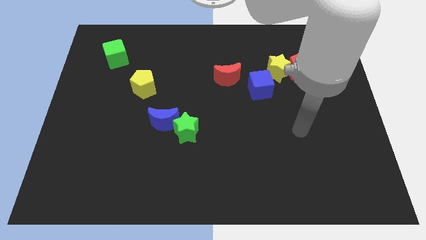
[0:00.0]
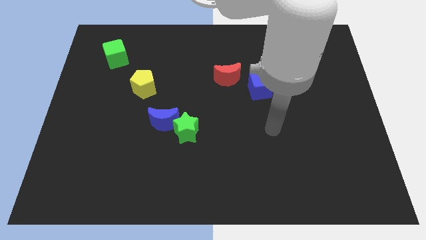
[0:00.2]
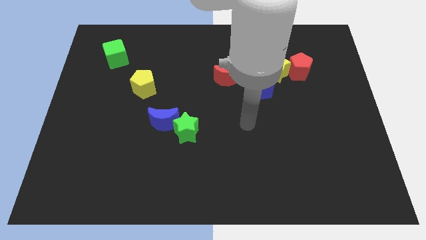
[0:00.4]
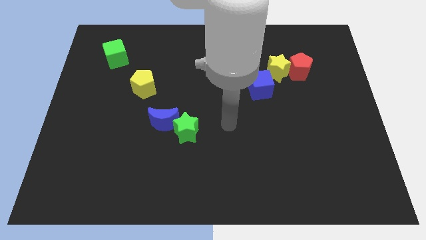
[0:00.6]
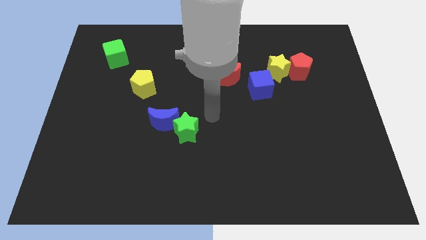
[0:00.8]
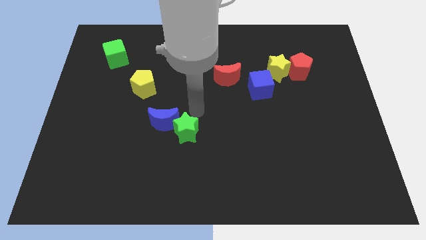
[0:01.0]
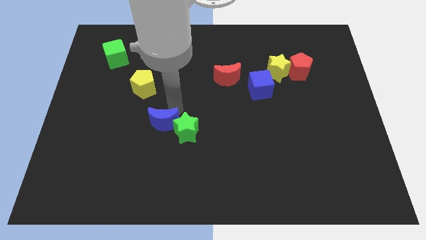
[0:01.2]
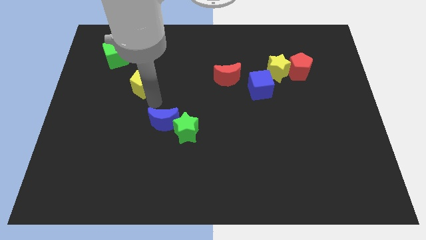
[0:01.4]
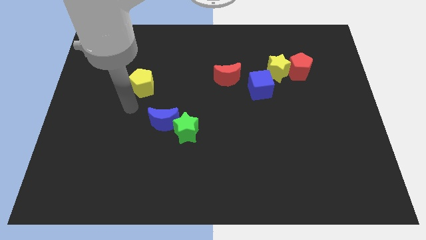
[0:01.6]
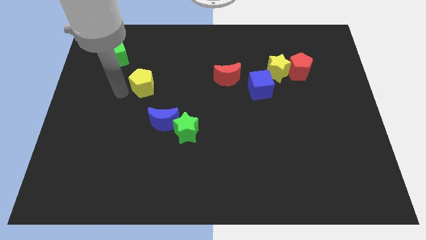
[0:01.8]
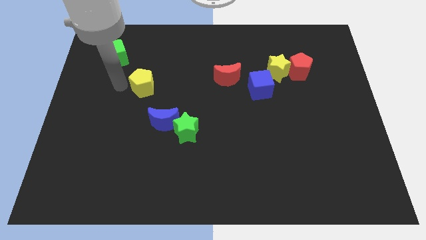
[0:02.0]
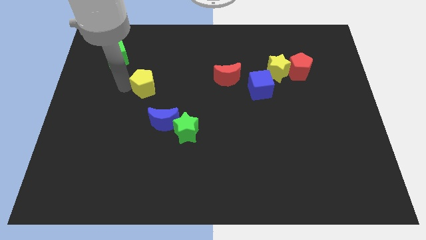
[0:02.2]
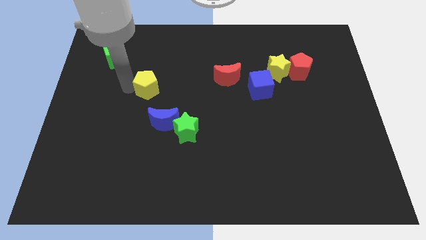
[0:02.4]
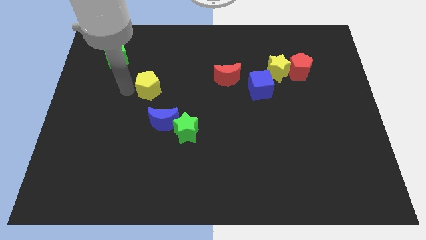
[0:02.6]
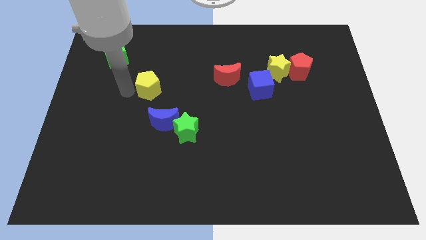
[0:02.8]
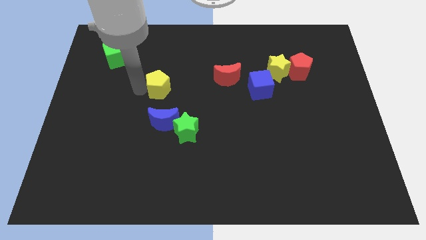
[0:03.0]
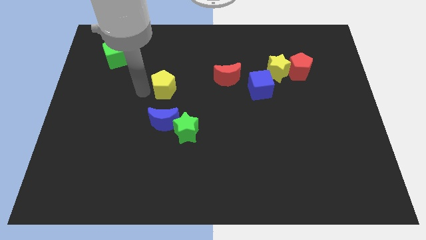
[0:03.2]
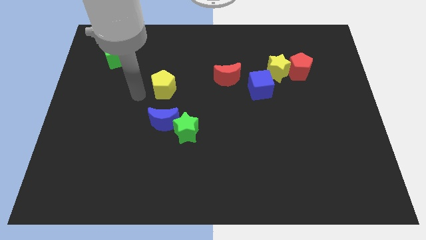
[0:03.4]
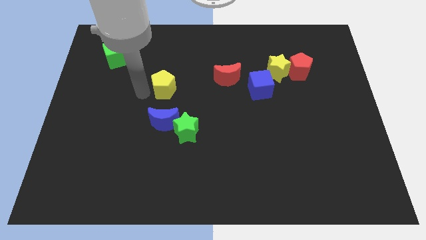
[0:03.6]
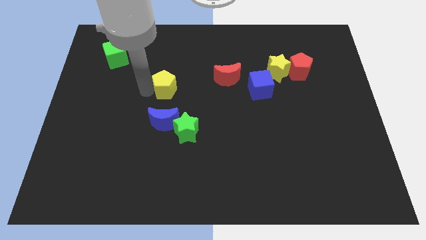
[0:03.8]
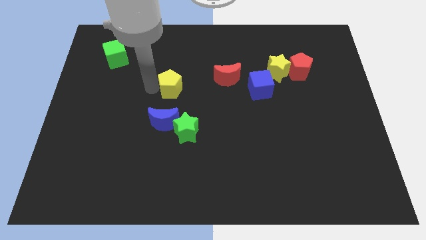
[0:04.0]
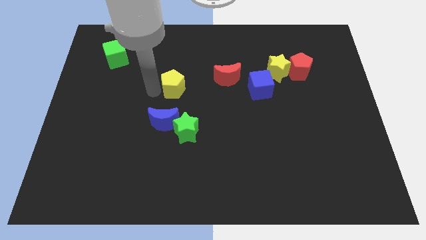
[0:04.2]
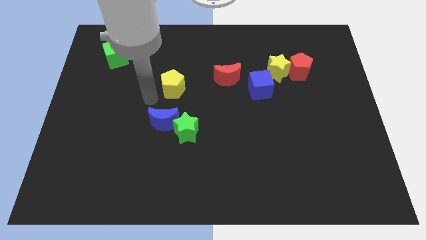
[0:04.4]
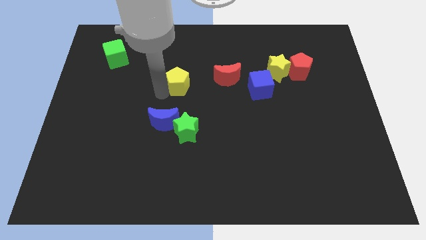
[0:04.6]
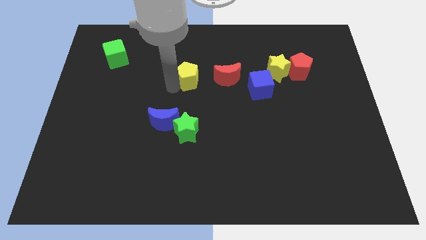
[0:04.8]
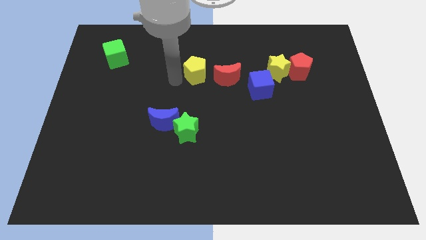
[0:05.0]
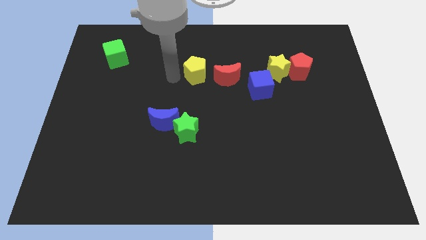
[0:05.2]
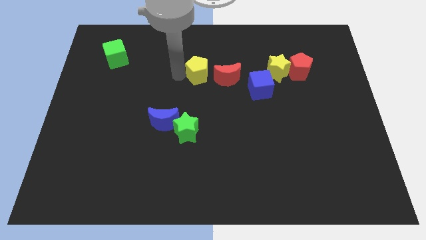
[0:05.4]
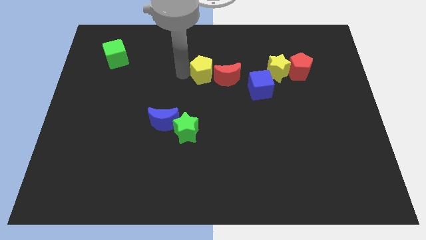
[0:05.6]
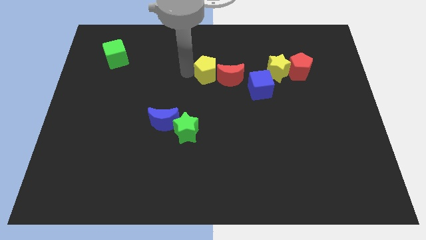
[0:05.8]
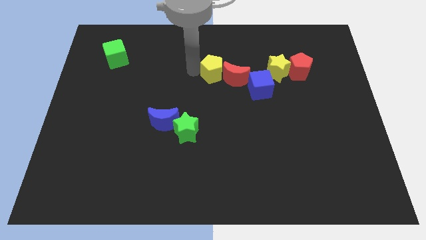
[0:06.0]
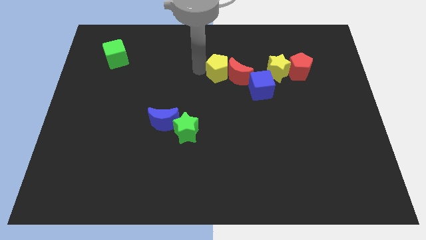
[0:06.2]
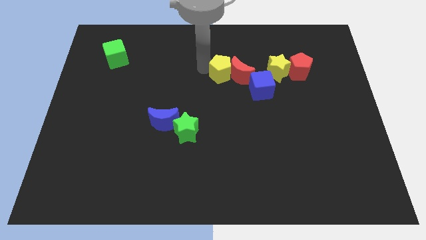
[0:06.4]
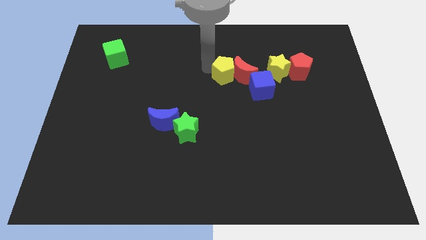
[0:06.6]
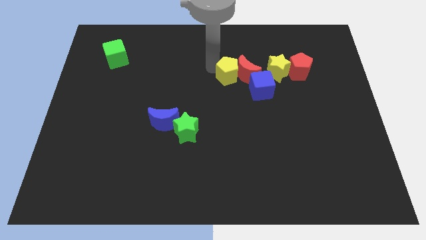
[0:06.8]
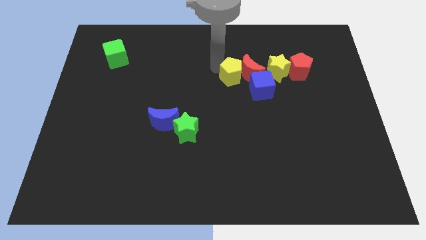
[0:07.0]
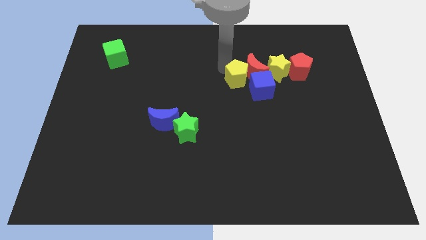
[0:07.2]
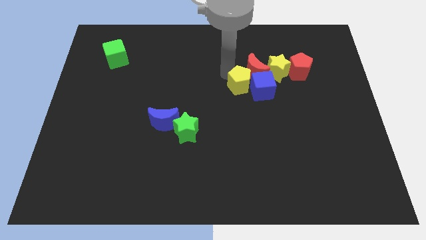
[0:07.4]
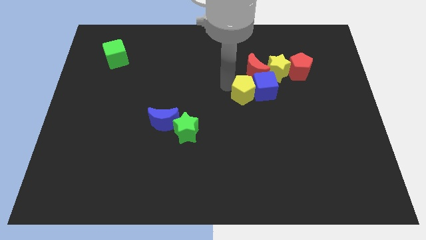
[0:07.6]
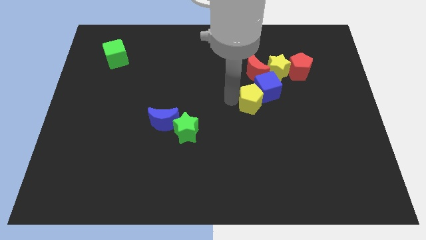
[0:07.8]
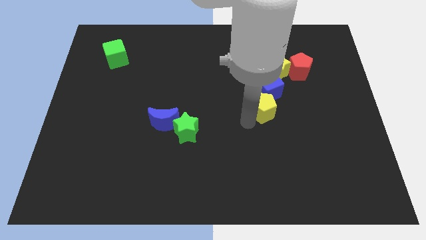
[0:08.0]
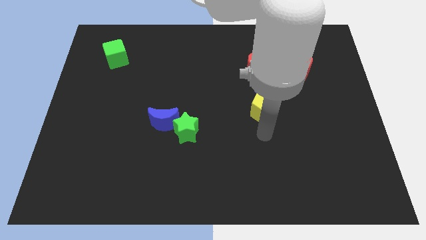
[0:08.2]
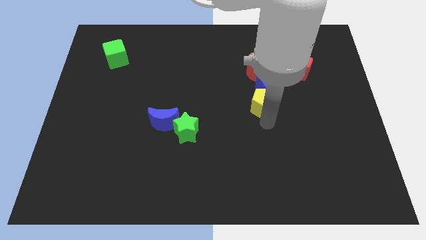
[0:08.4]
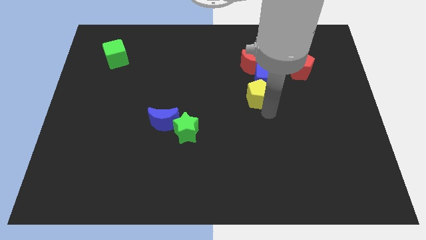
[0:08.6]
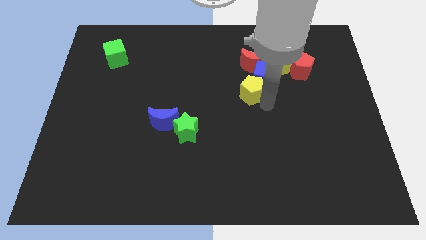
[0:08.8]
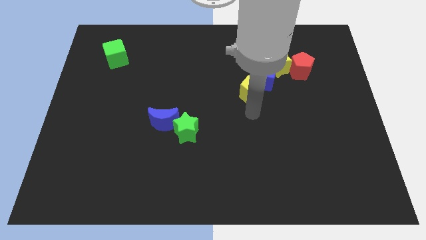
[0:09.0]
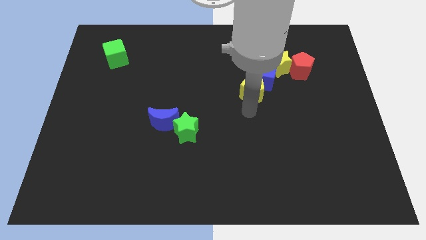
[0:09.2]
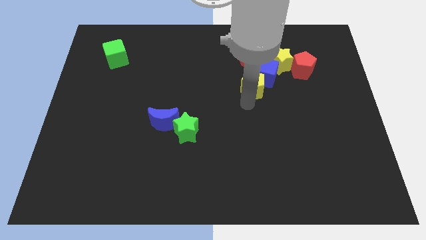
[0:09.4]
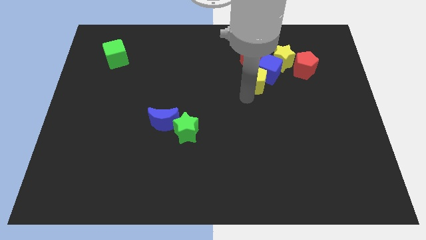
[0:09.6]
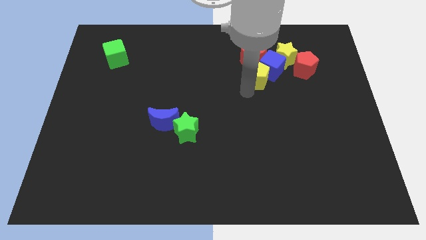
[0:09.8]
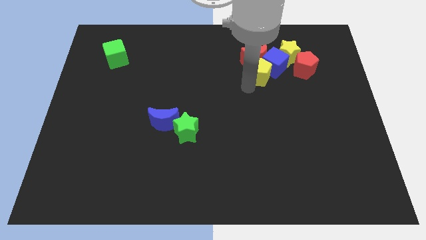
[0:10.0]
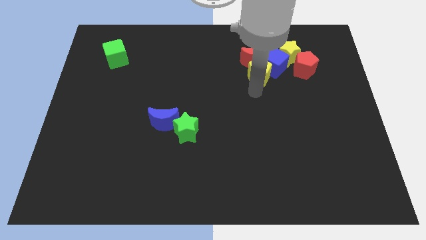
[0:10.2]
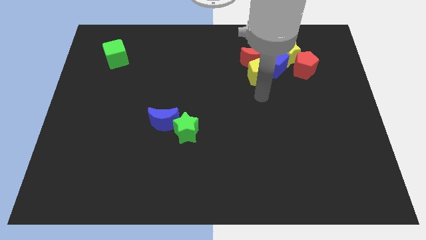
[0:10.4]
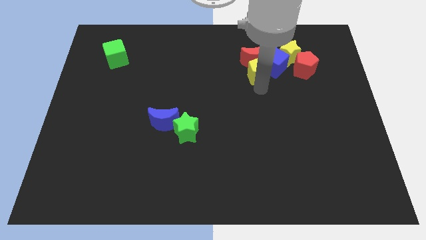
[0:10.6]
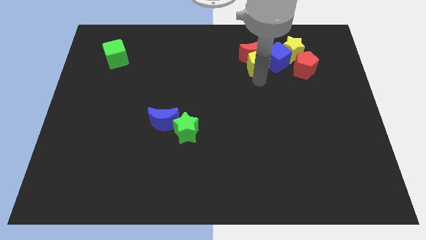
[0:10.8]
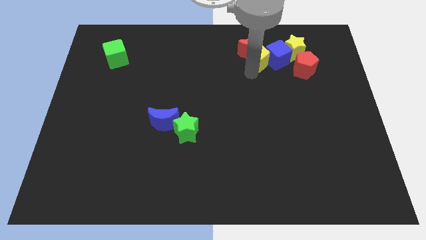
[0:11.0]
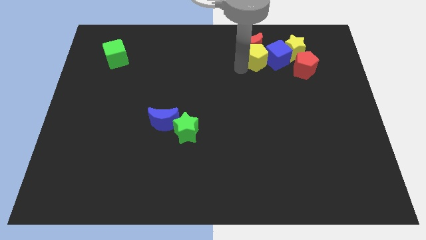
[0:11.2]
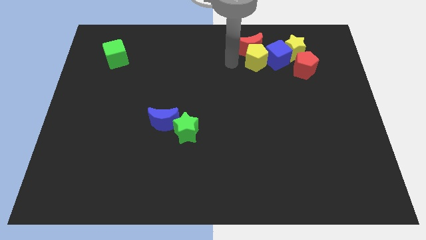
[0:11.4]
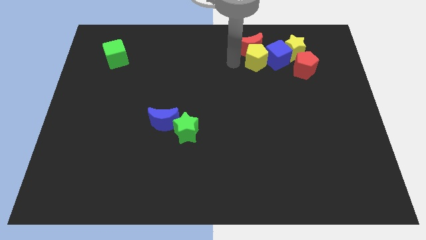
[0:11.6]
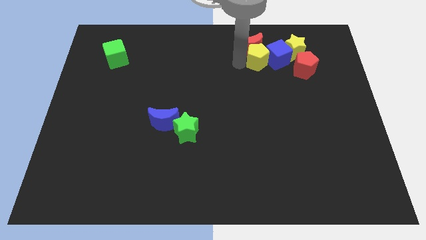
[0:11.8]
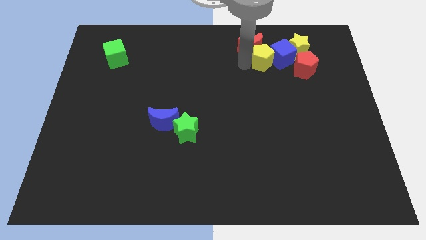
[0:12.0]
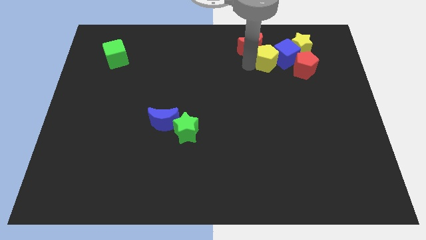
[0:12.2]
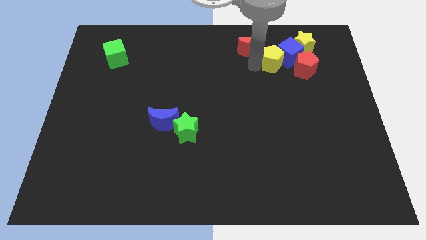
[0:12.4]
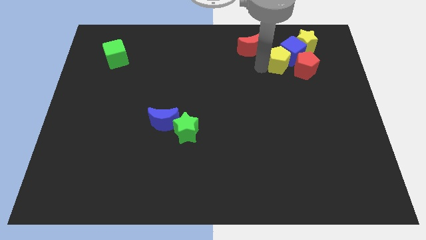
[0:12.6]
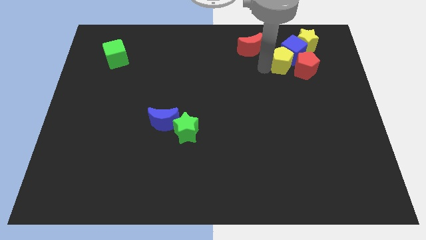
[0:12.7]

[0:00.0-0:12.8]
put the yellow pentagon next to the red pentagon
